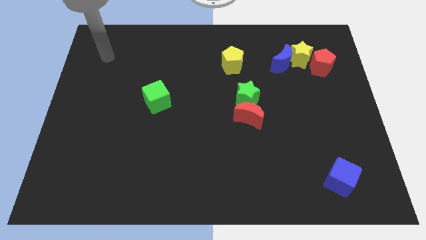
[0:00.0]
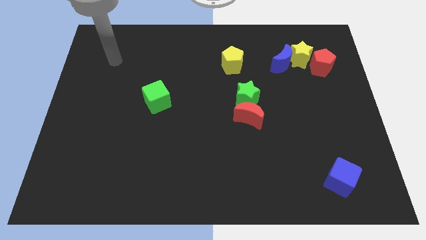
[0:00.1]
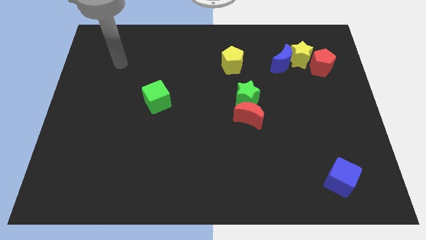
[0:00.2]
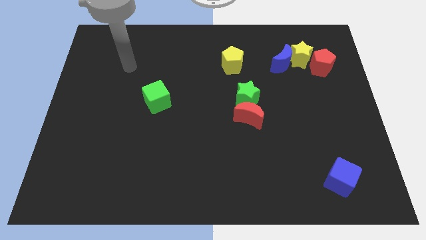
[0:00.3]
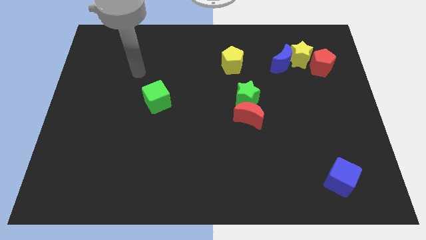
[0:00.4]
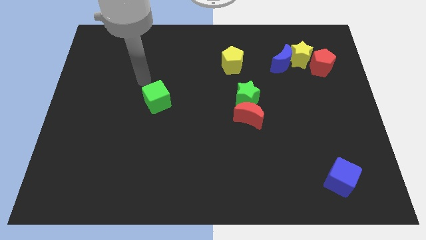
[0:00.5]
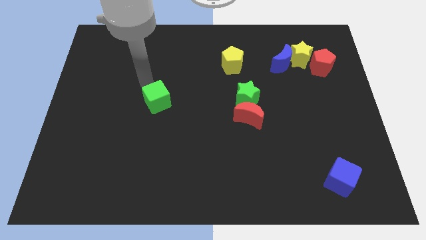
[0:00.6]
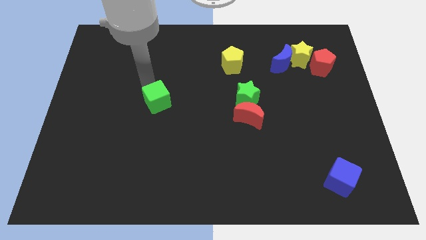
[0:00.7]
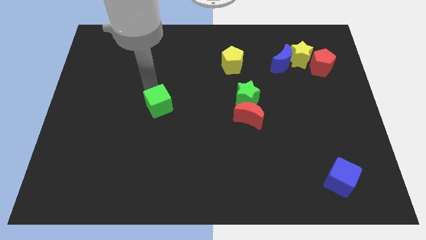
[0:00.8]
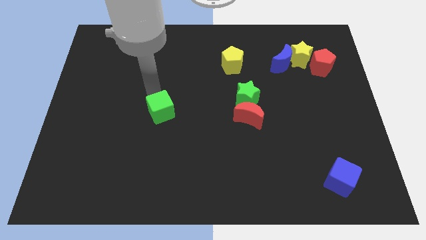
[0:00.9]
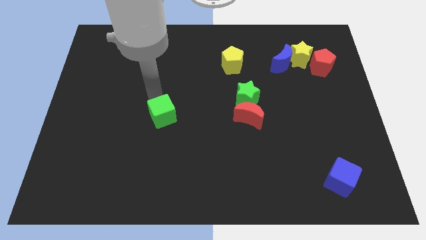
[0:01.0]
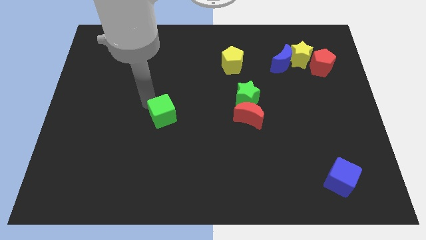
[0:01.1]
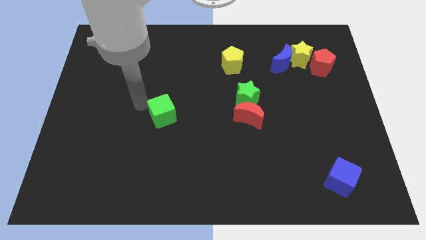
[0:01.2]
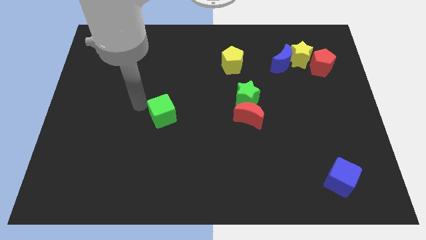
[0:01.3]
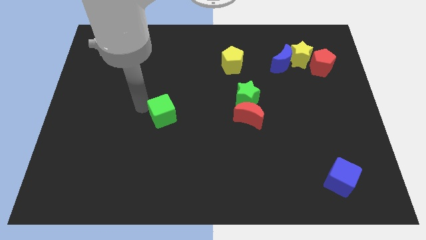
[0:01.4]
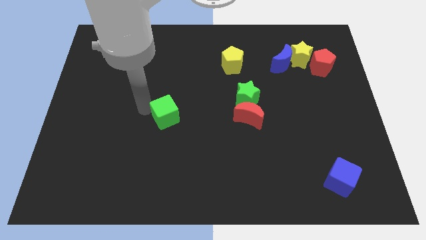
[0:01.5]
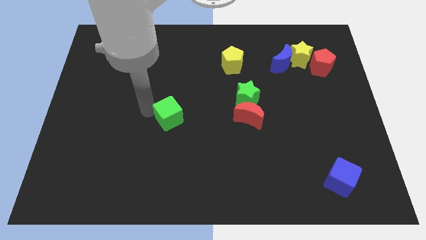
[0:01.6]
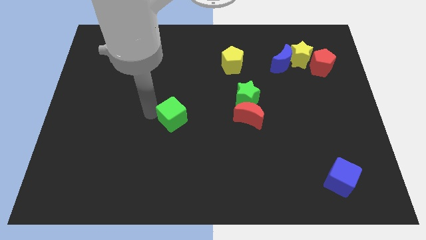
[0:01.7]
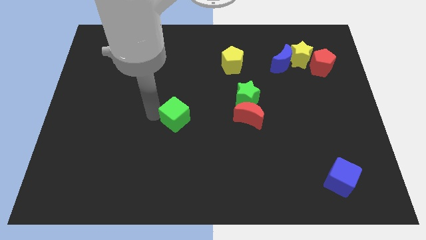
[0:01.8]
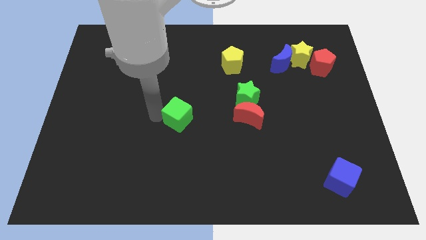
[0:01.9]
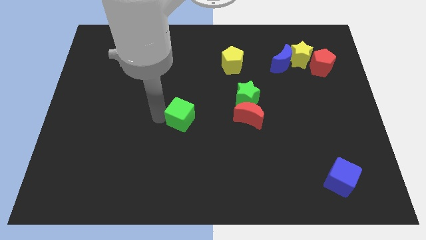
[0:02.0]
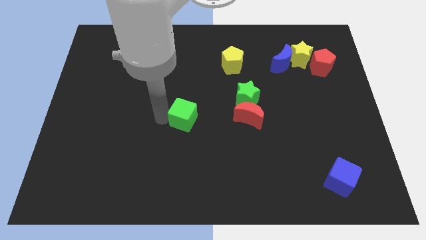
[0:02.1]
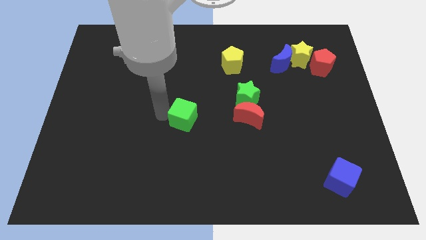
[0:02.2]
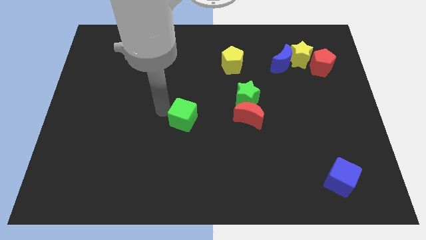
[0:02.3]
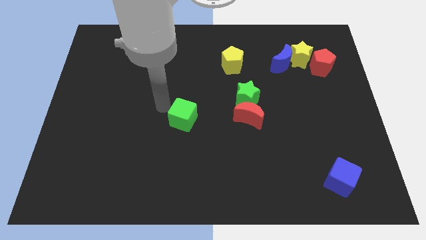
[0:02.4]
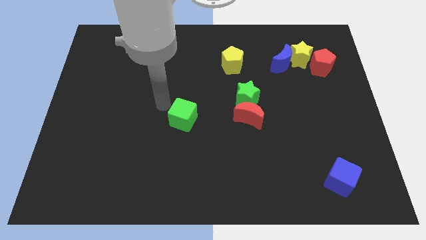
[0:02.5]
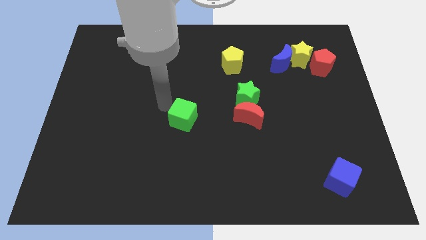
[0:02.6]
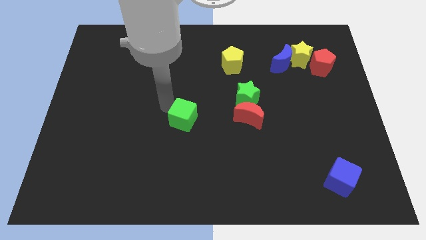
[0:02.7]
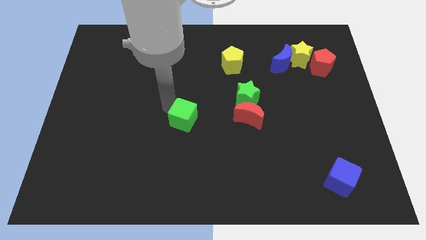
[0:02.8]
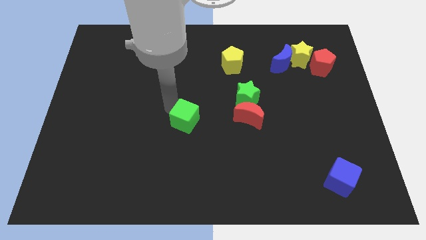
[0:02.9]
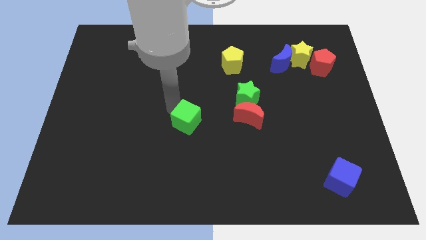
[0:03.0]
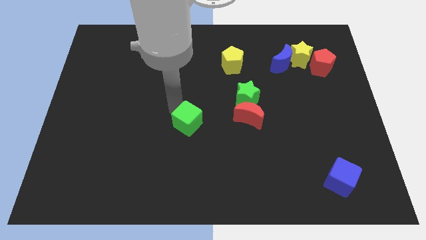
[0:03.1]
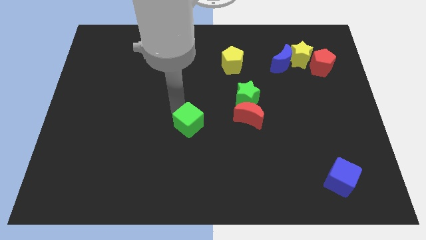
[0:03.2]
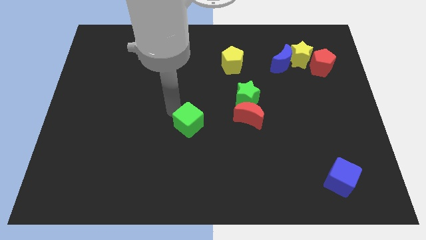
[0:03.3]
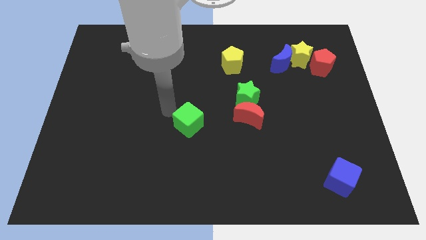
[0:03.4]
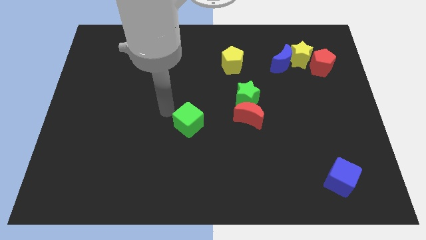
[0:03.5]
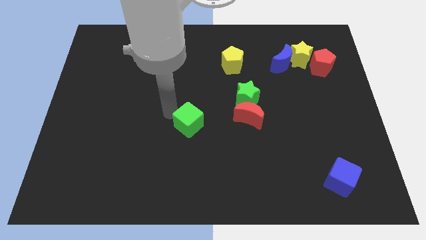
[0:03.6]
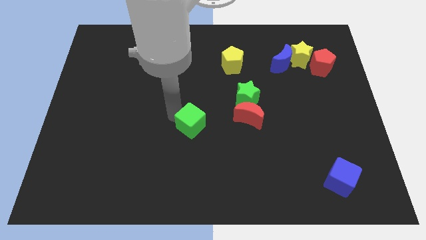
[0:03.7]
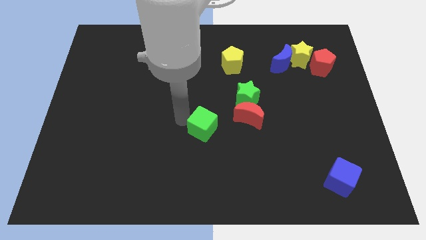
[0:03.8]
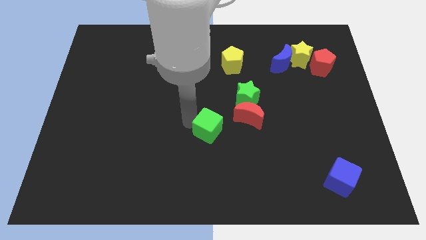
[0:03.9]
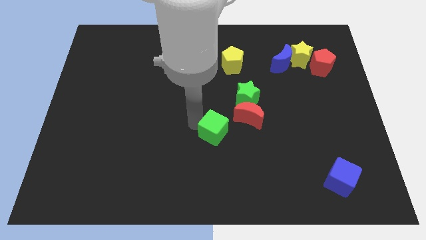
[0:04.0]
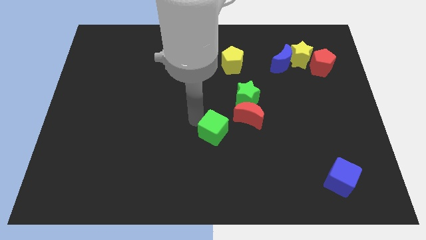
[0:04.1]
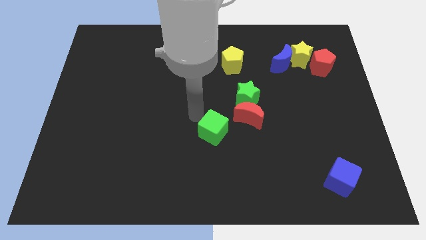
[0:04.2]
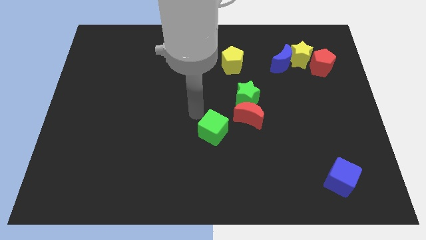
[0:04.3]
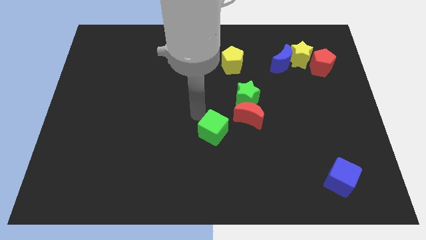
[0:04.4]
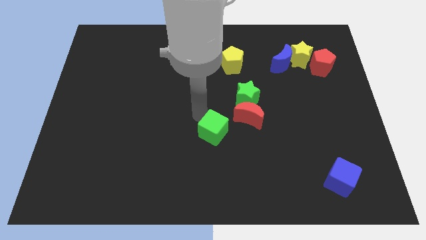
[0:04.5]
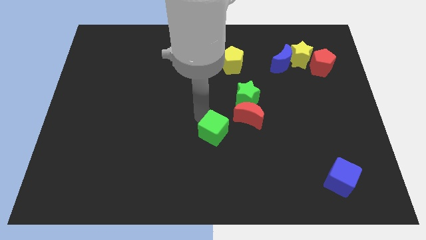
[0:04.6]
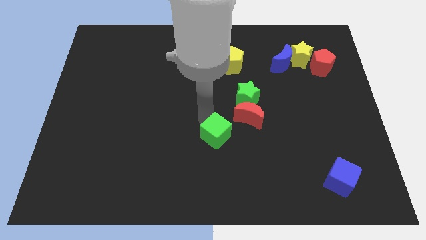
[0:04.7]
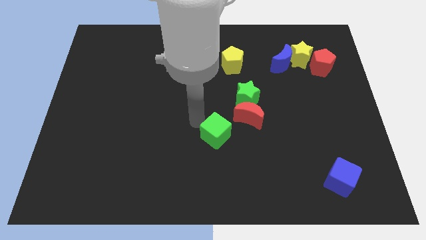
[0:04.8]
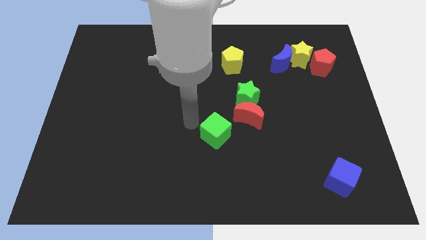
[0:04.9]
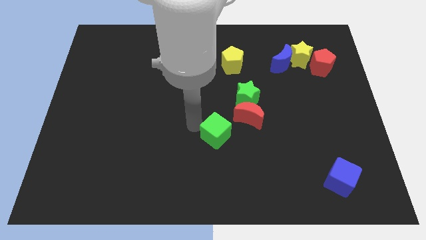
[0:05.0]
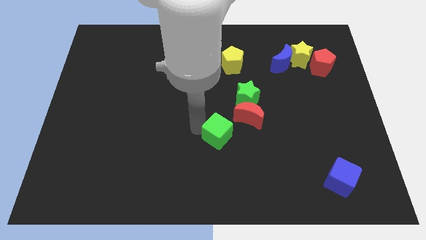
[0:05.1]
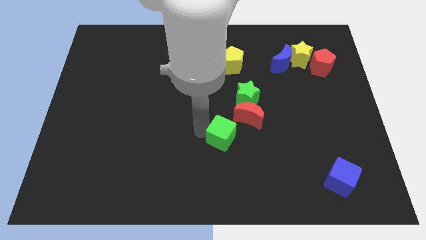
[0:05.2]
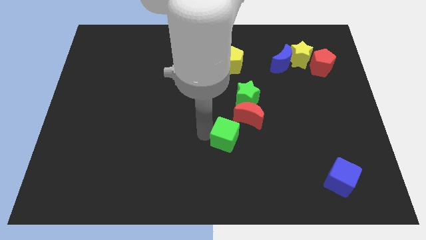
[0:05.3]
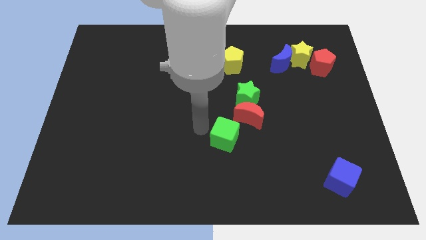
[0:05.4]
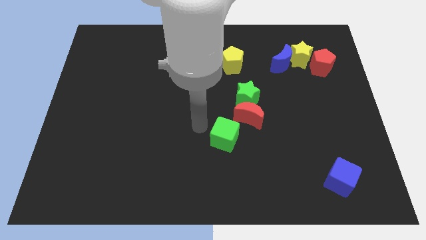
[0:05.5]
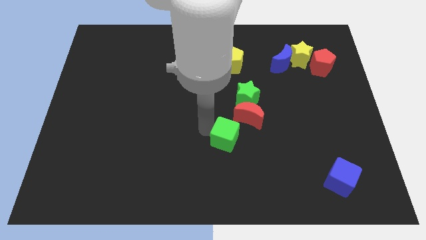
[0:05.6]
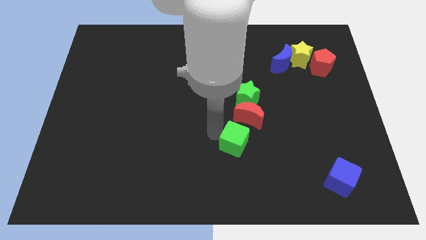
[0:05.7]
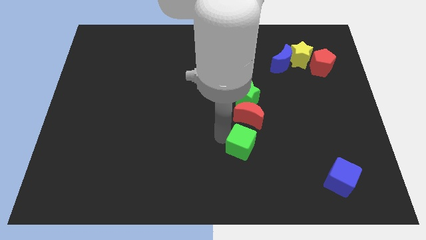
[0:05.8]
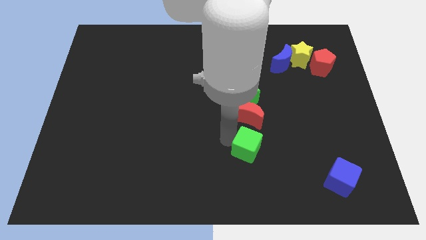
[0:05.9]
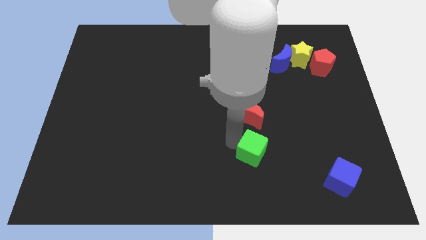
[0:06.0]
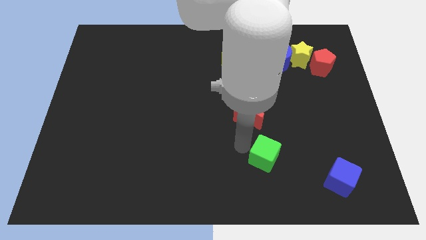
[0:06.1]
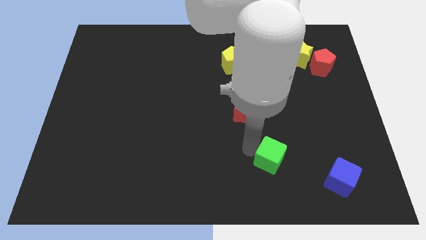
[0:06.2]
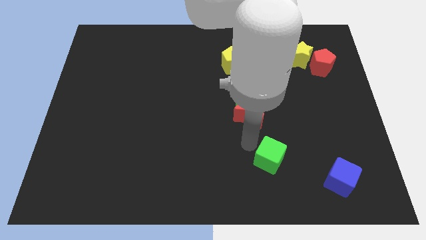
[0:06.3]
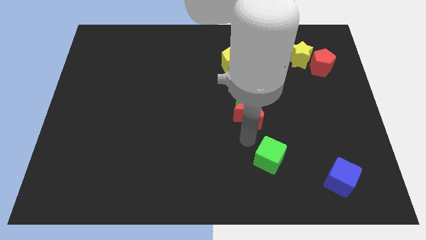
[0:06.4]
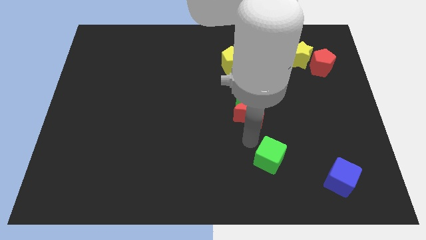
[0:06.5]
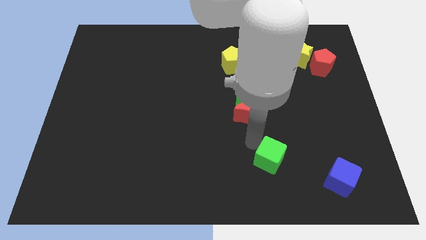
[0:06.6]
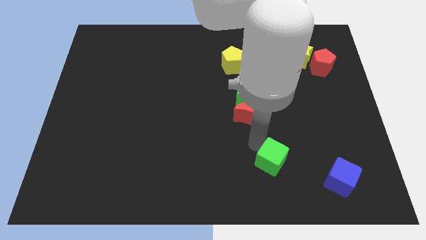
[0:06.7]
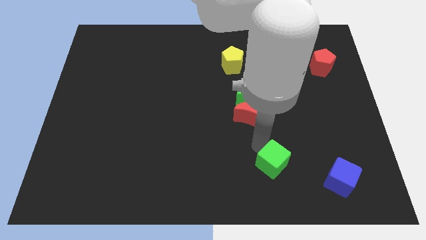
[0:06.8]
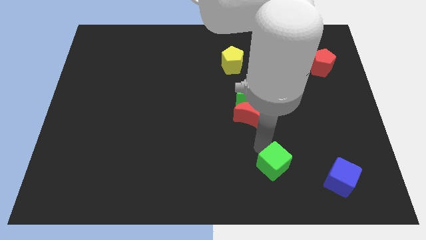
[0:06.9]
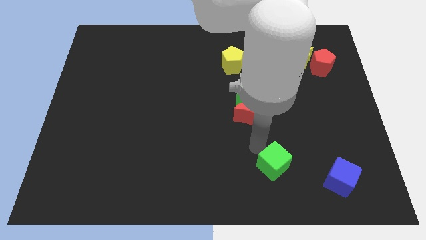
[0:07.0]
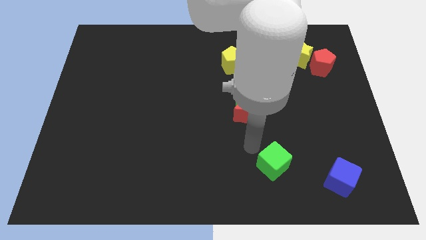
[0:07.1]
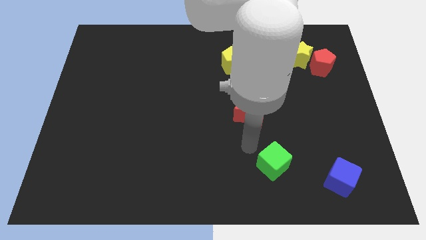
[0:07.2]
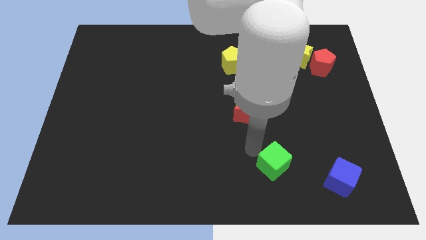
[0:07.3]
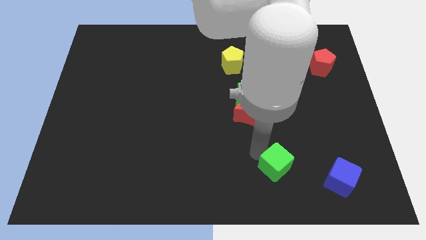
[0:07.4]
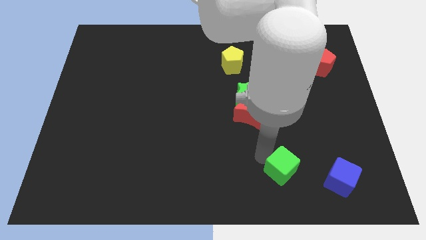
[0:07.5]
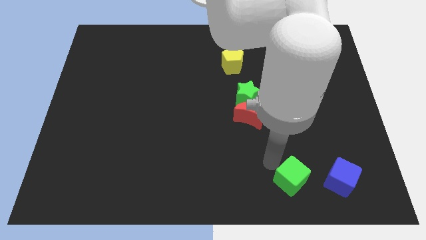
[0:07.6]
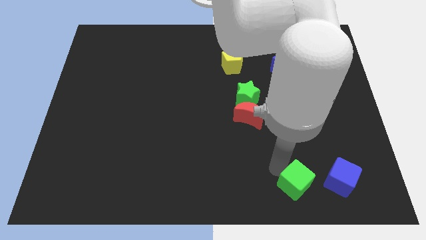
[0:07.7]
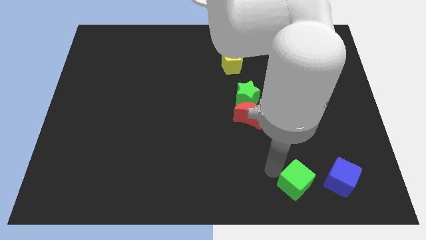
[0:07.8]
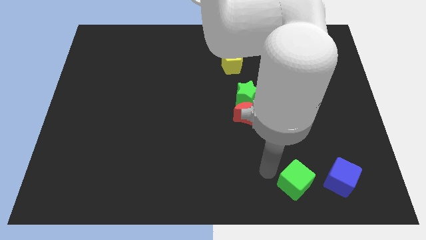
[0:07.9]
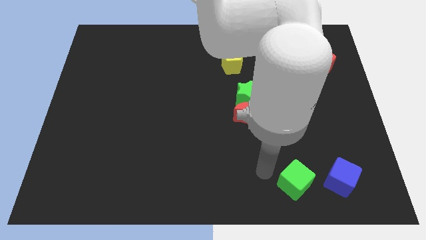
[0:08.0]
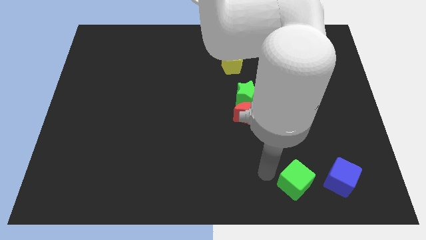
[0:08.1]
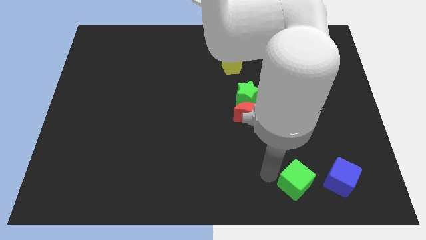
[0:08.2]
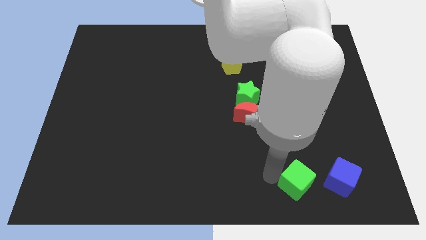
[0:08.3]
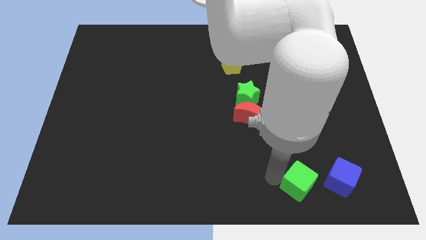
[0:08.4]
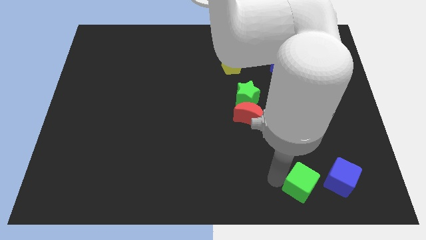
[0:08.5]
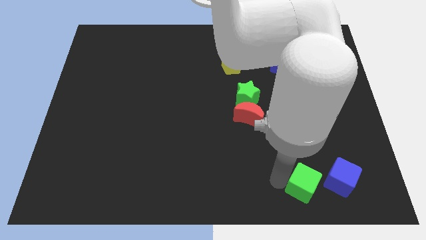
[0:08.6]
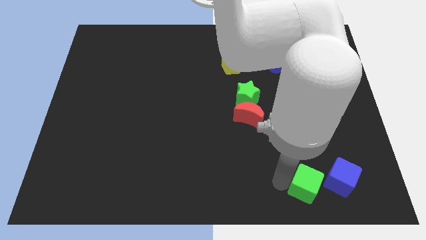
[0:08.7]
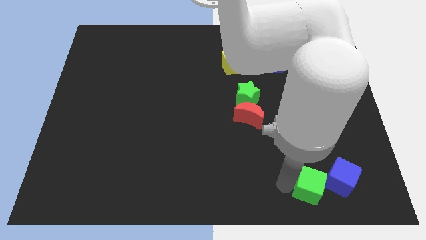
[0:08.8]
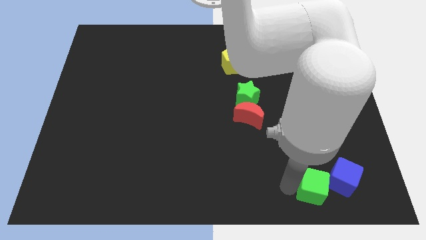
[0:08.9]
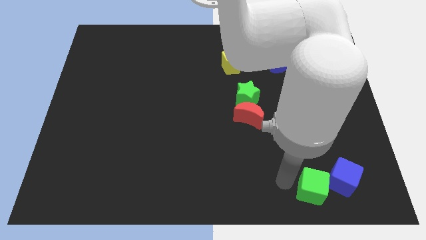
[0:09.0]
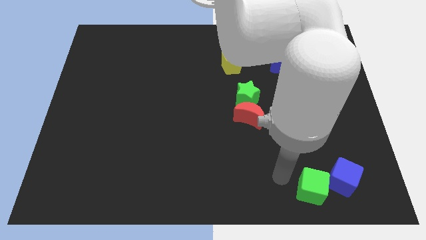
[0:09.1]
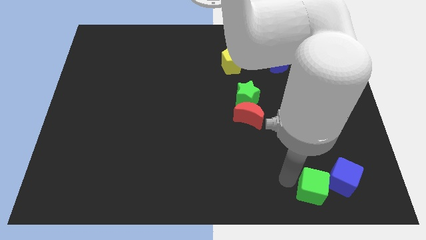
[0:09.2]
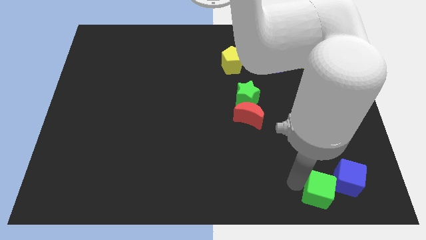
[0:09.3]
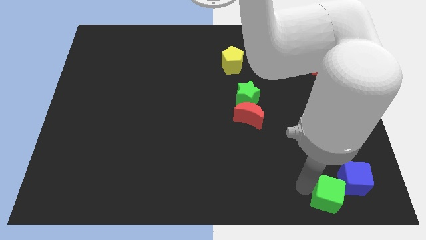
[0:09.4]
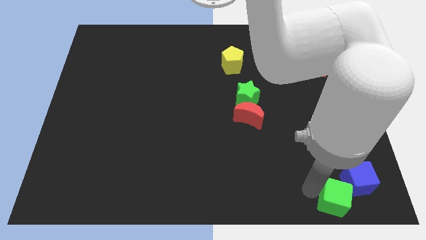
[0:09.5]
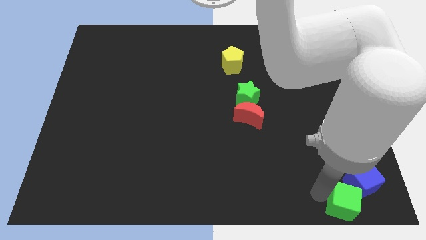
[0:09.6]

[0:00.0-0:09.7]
put the green cube to the bottom right of the board
